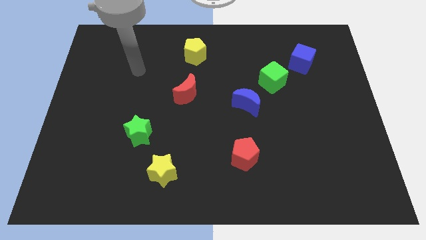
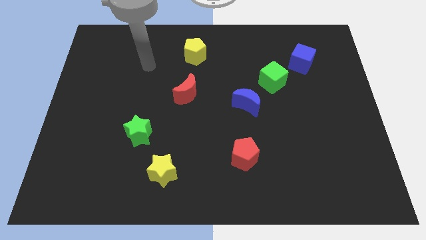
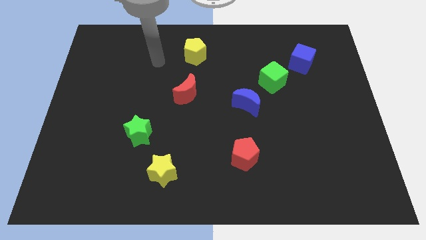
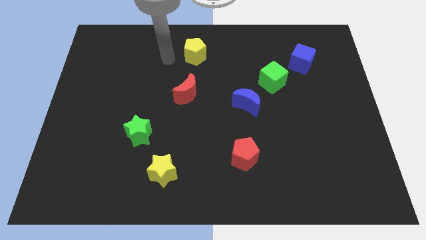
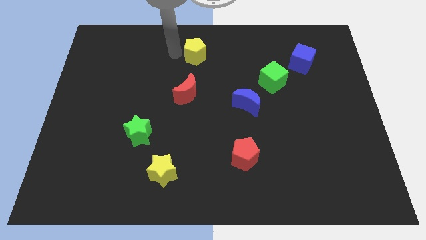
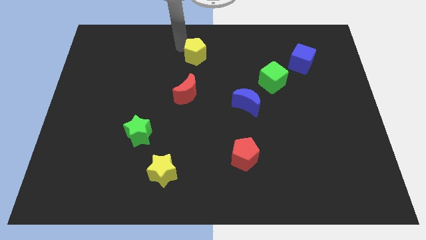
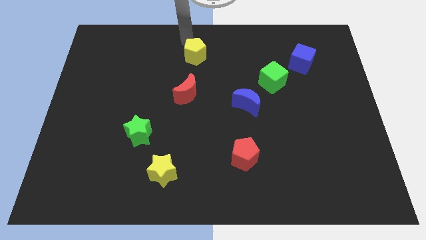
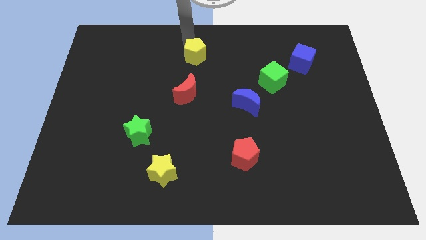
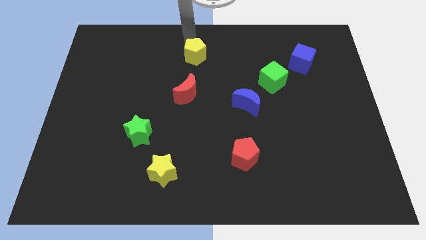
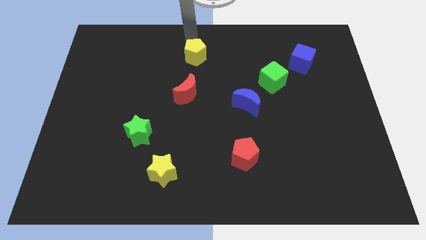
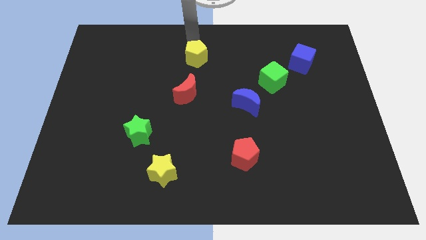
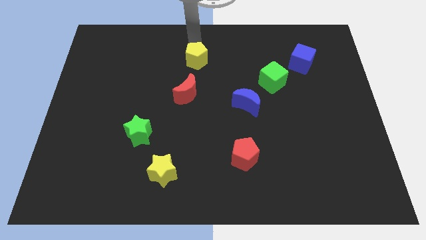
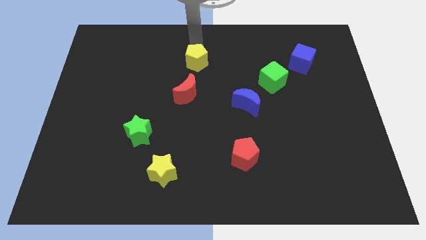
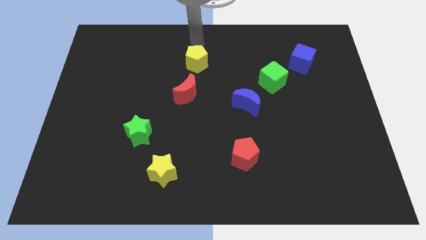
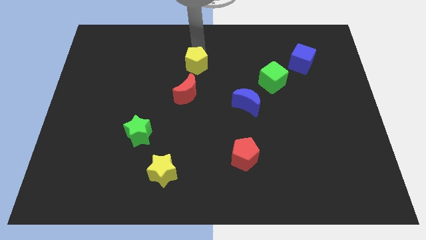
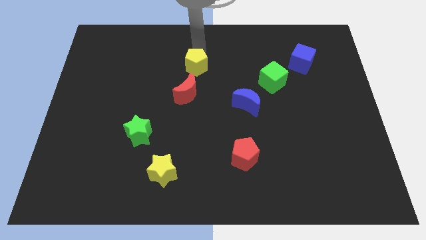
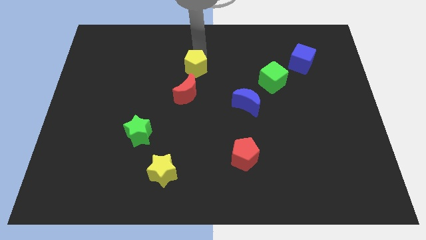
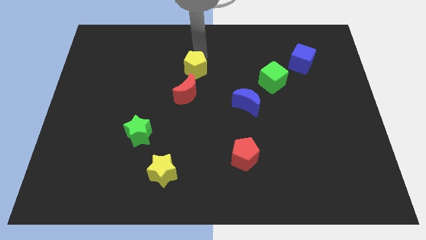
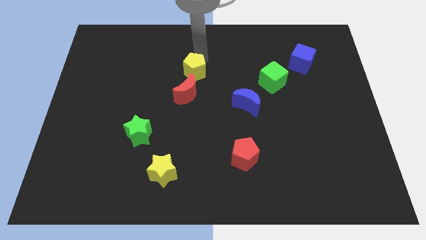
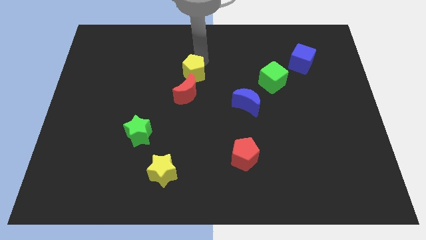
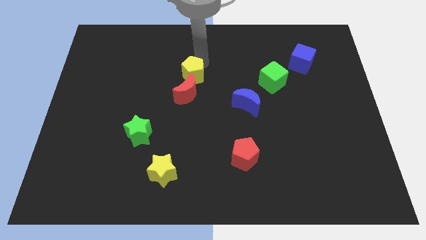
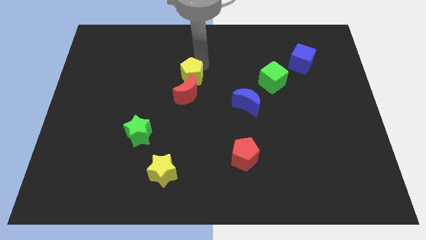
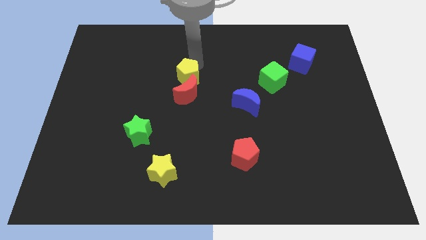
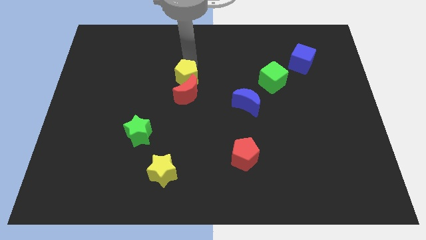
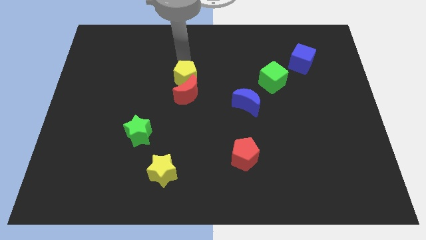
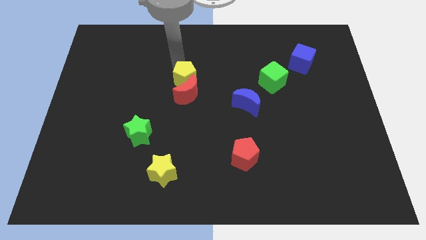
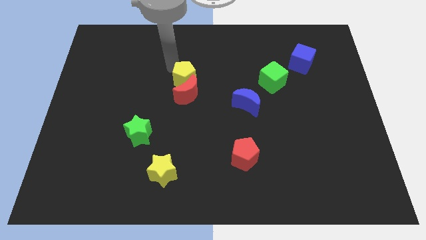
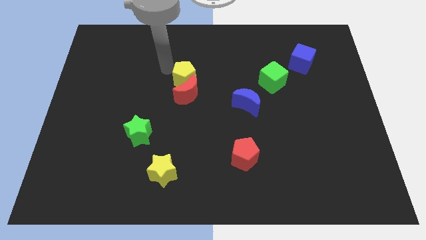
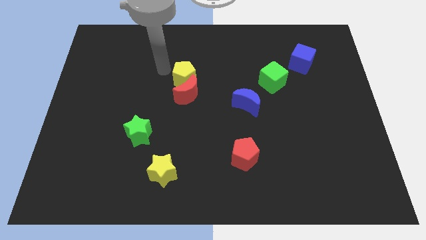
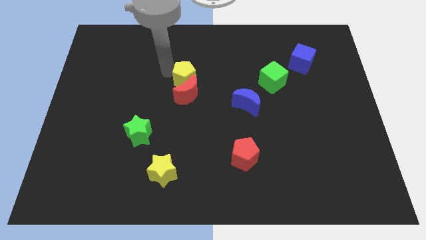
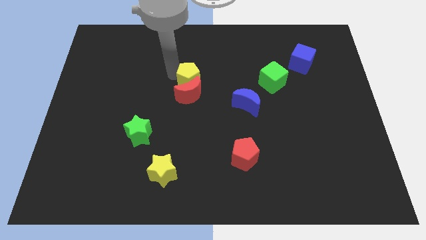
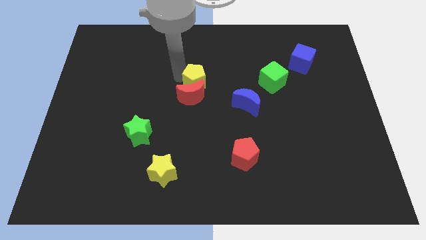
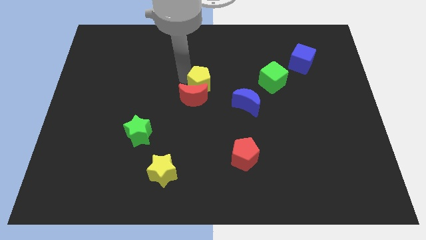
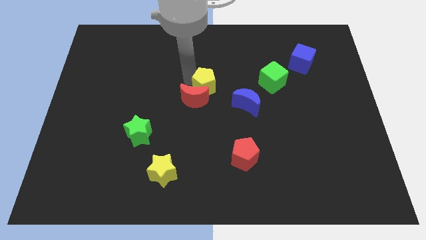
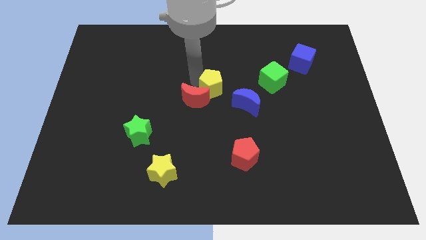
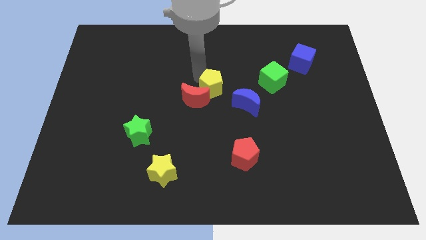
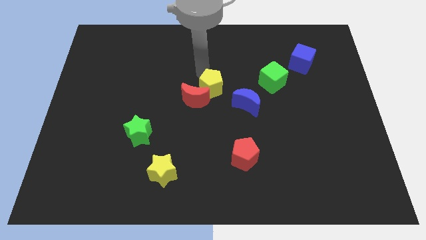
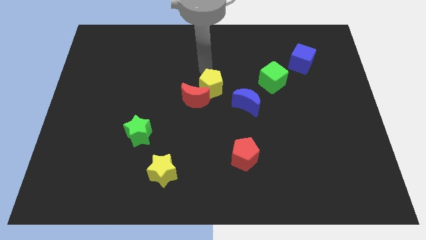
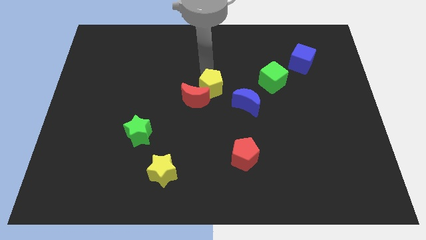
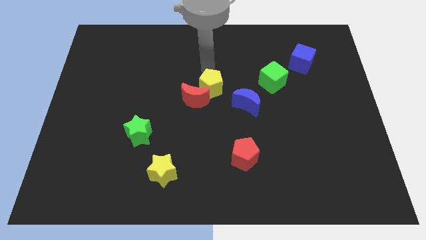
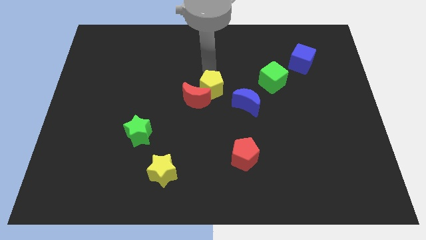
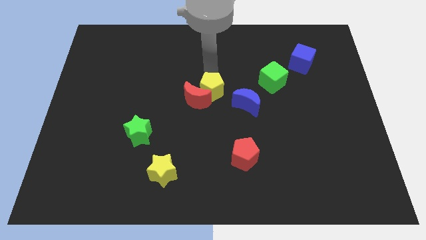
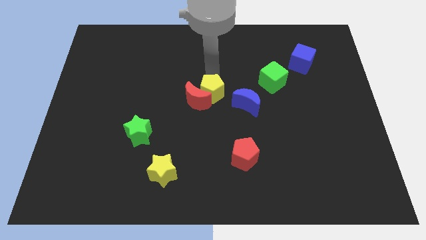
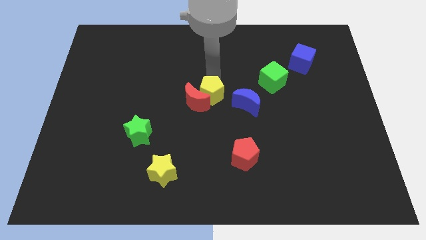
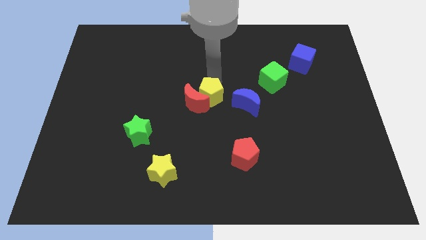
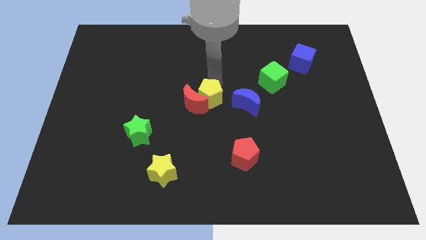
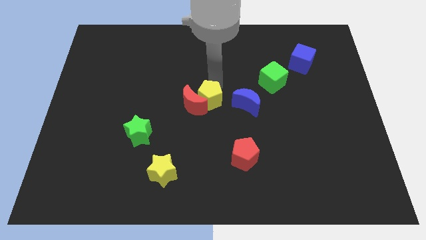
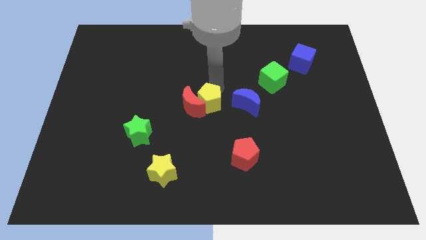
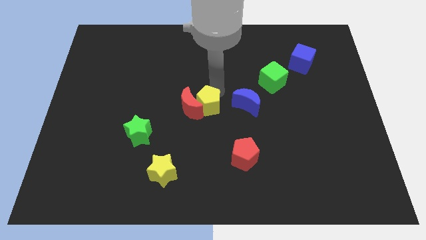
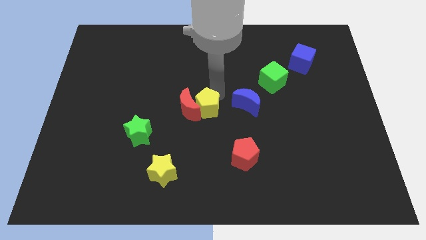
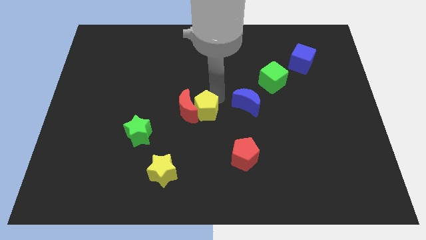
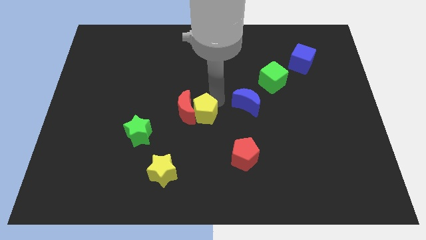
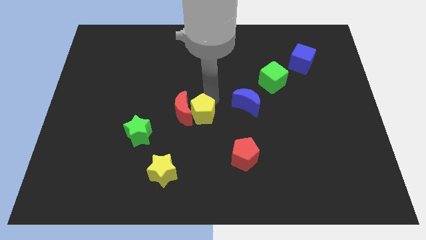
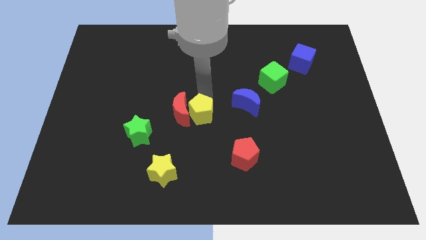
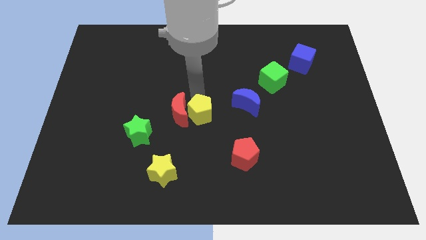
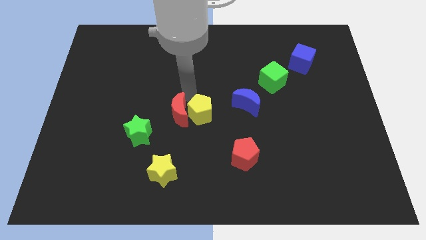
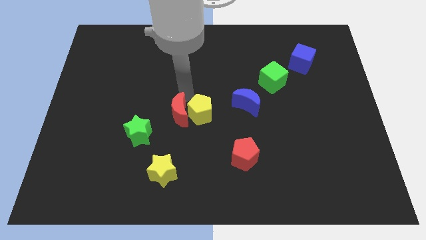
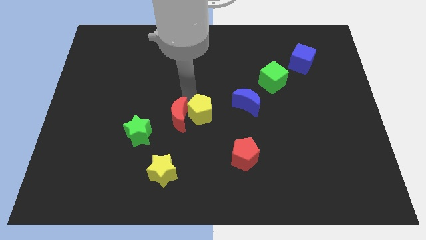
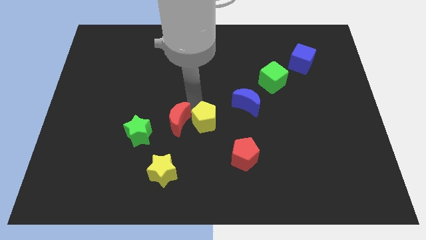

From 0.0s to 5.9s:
slide the yellow pentagon diagonally up and to the left of the red pentagon

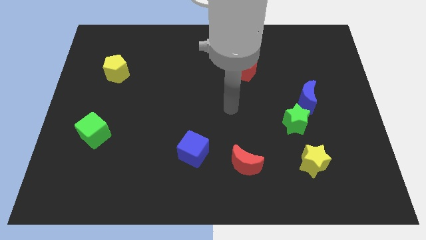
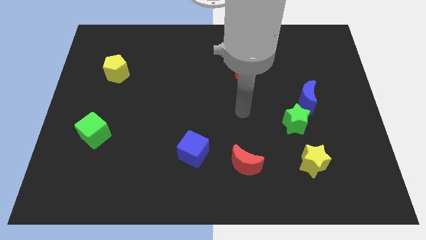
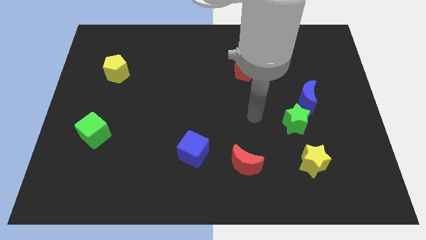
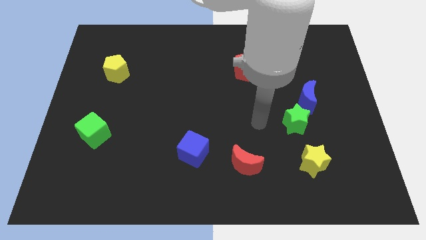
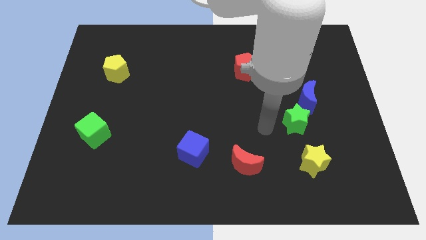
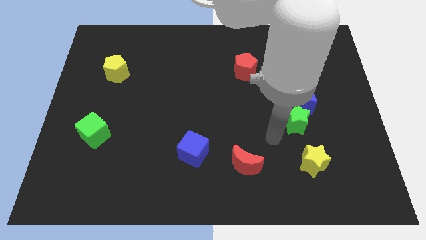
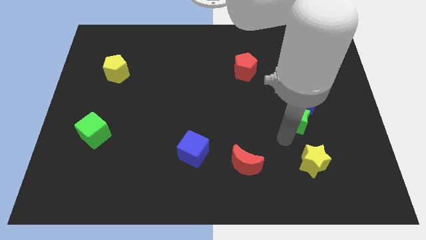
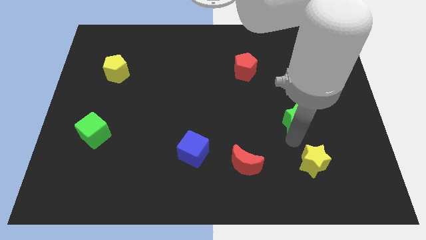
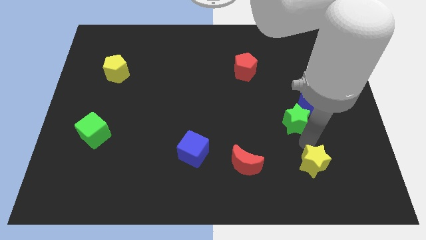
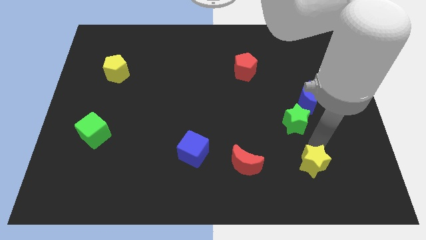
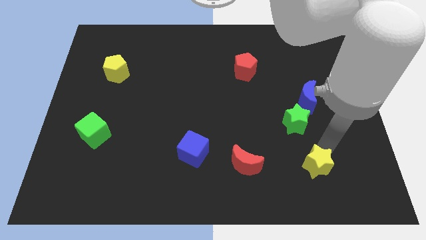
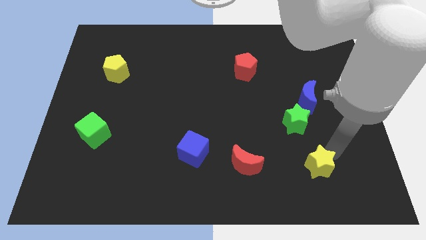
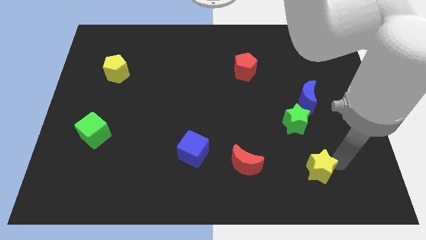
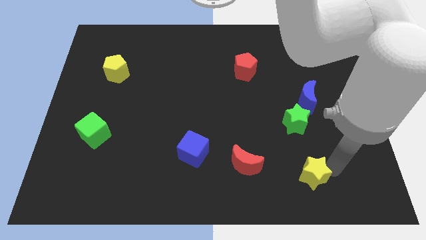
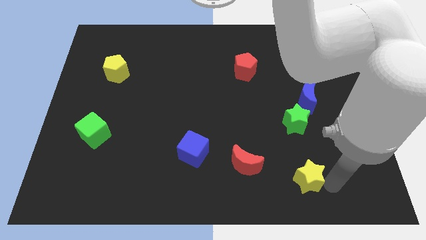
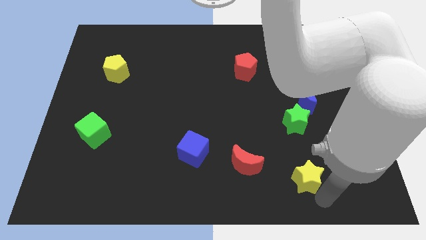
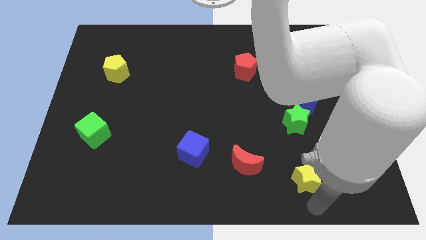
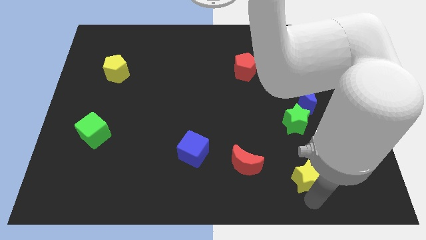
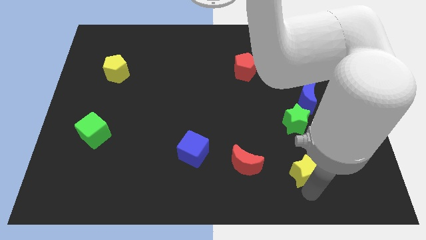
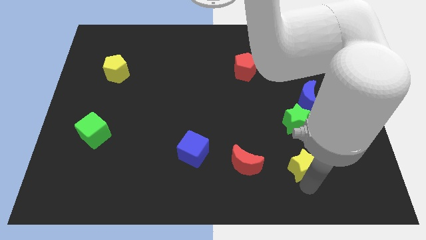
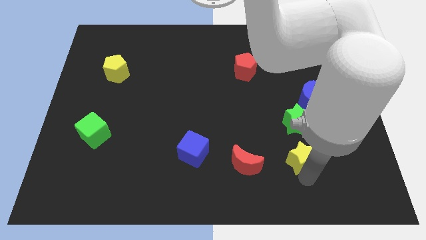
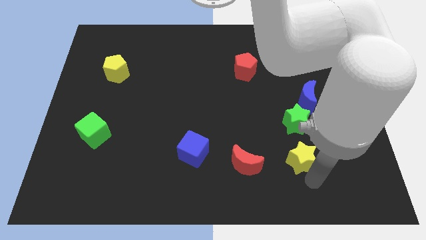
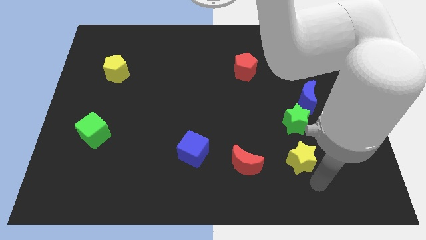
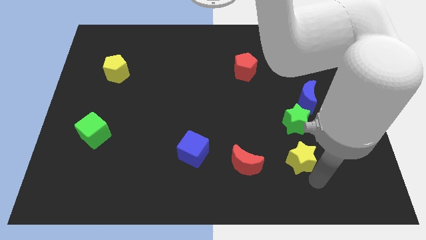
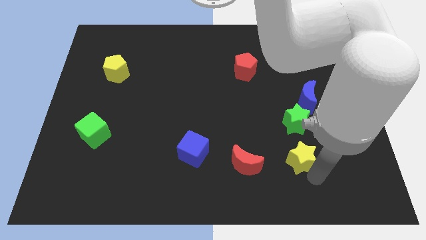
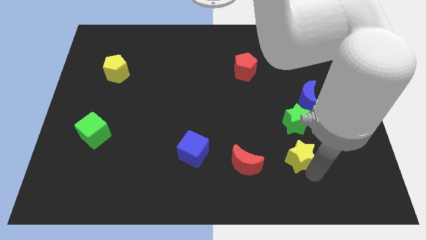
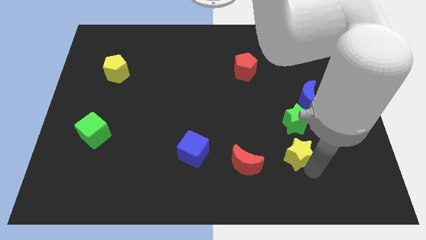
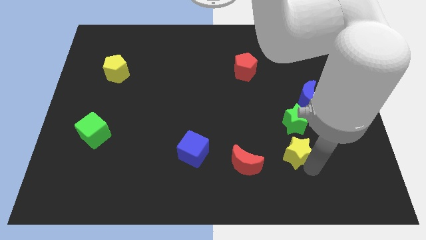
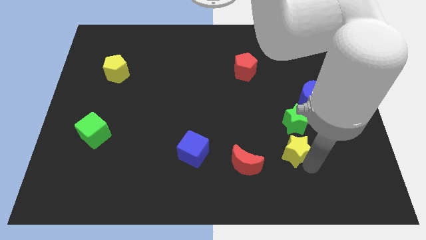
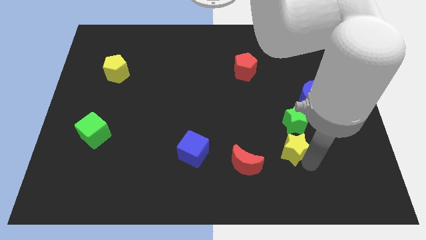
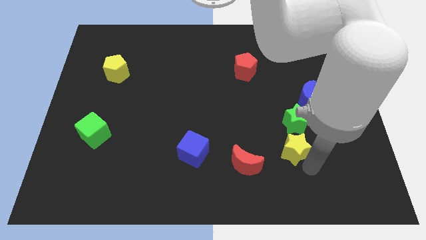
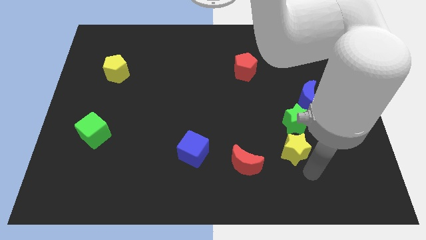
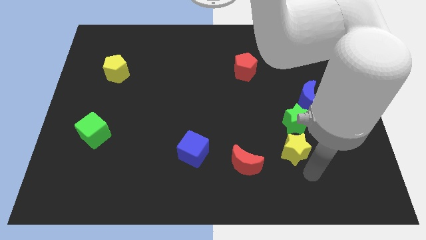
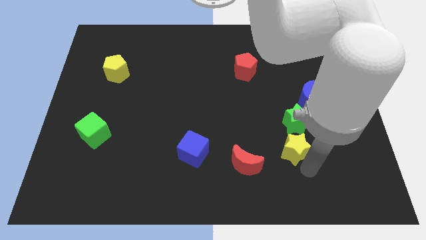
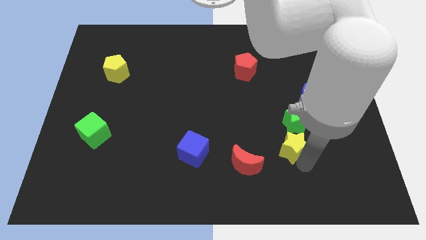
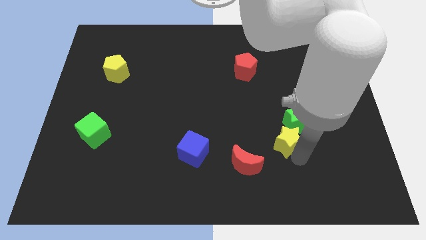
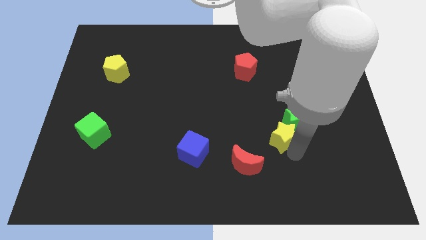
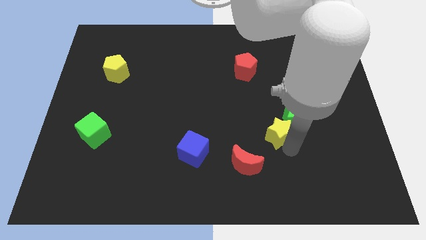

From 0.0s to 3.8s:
put the yellow star to the bottom left side of the blue moon
